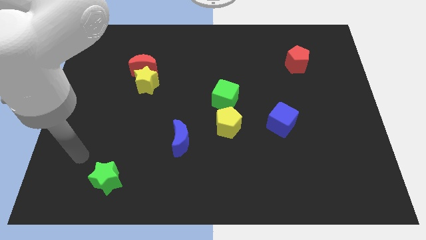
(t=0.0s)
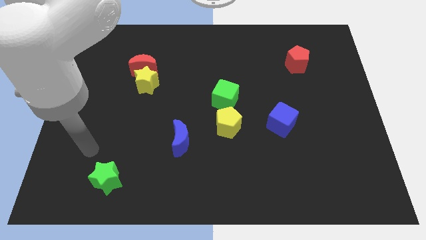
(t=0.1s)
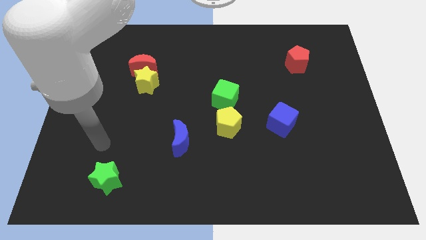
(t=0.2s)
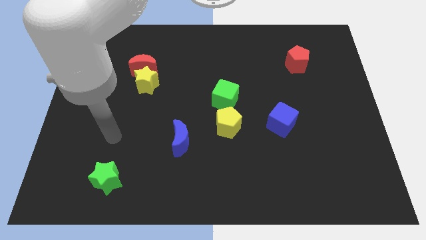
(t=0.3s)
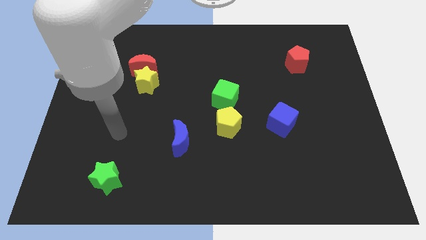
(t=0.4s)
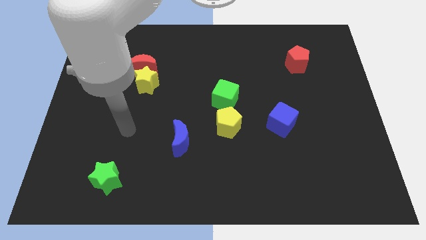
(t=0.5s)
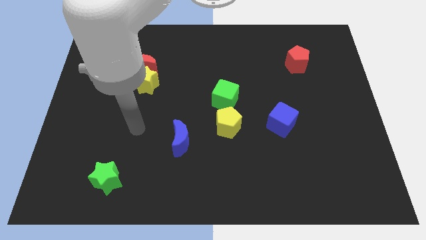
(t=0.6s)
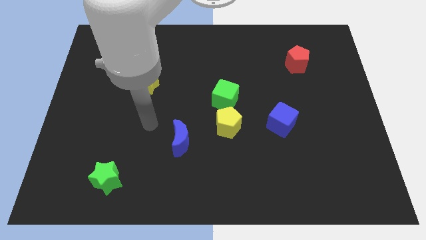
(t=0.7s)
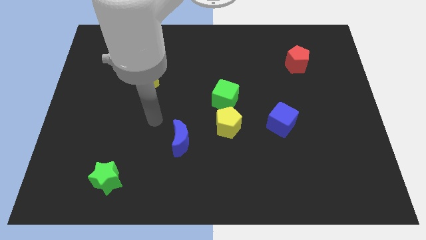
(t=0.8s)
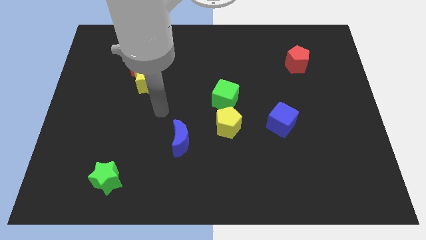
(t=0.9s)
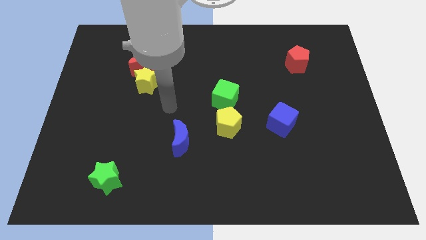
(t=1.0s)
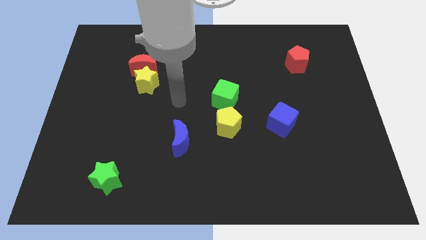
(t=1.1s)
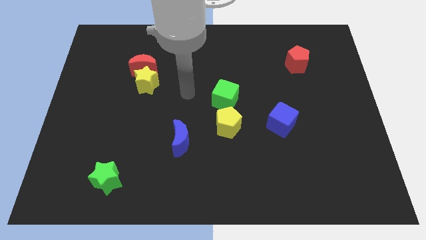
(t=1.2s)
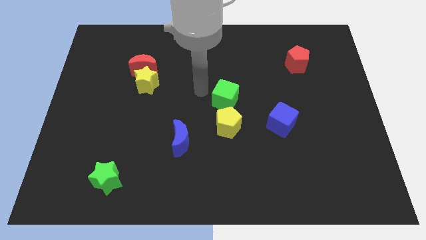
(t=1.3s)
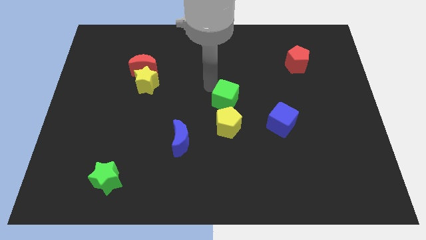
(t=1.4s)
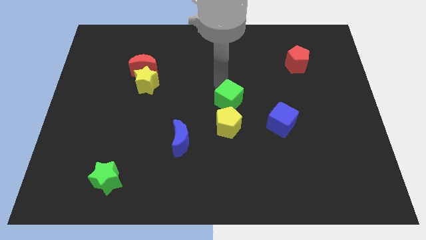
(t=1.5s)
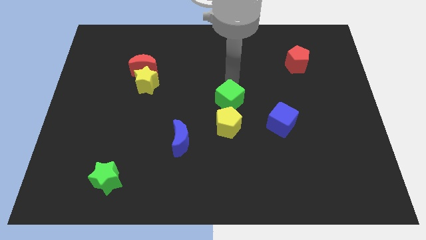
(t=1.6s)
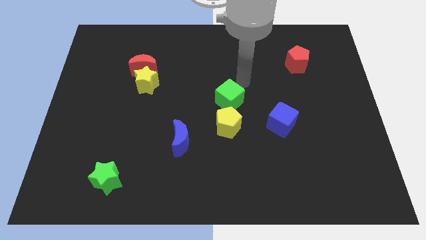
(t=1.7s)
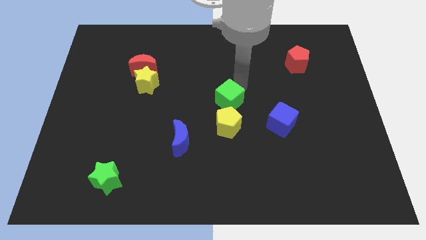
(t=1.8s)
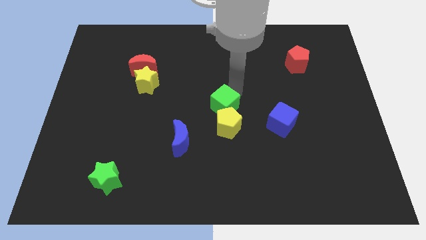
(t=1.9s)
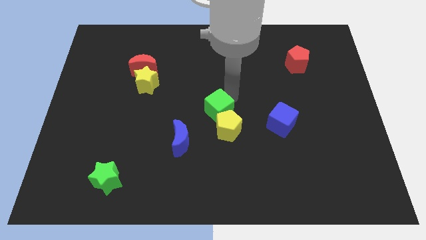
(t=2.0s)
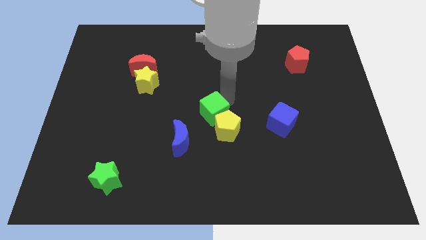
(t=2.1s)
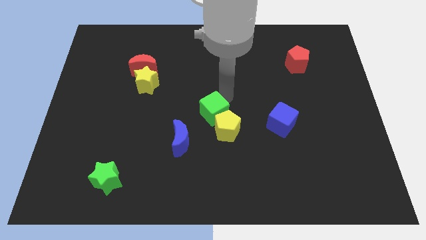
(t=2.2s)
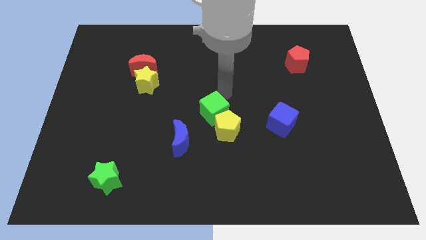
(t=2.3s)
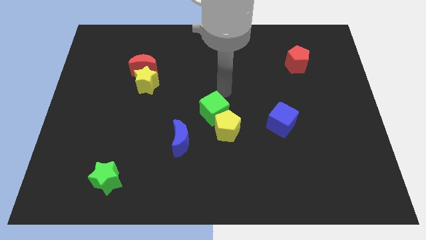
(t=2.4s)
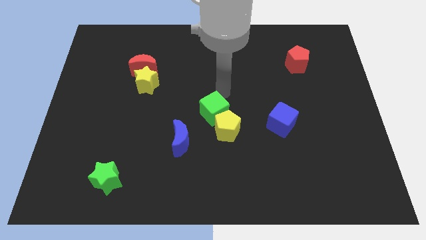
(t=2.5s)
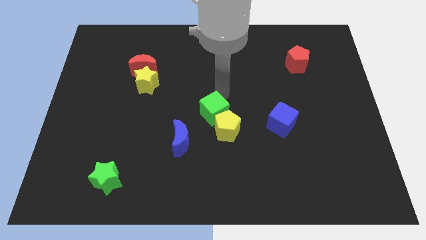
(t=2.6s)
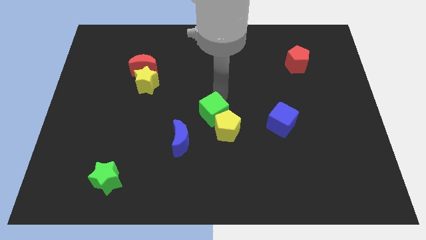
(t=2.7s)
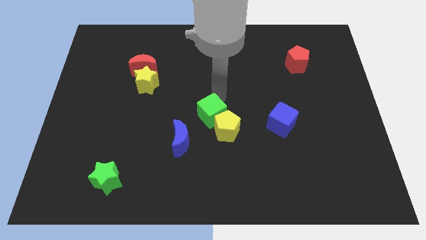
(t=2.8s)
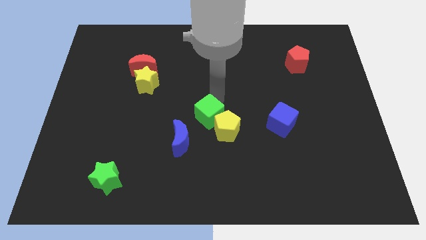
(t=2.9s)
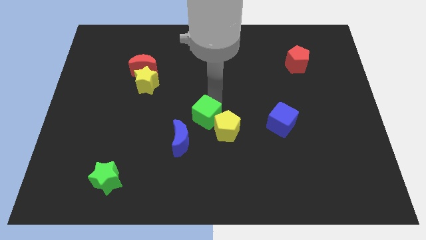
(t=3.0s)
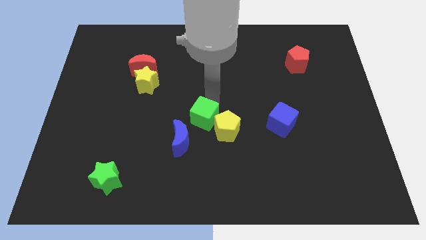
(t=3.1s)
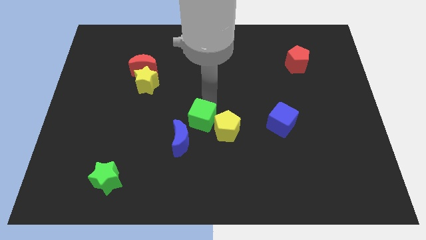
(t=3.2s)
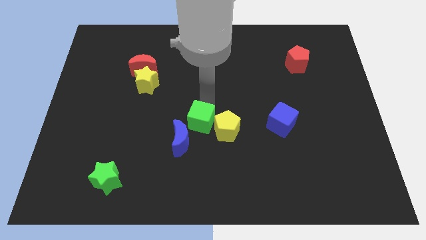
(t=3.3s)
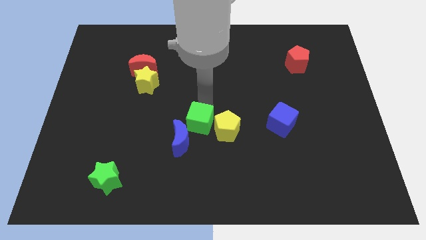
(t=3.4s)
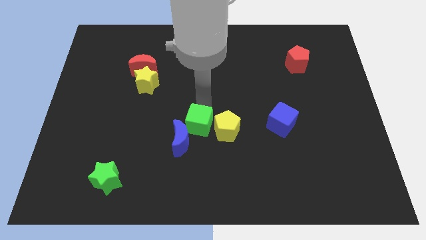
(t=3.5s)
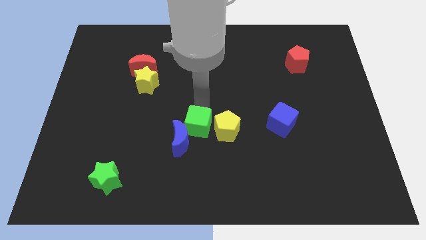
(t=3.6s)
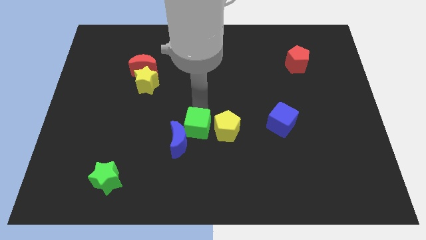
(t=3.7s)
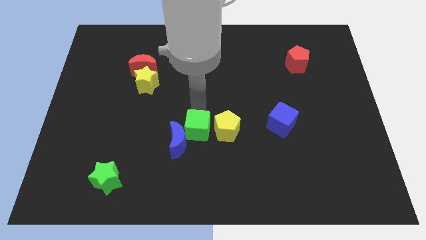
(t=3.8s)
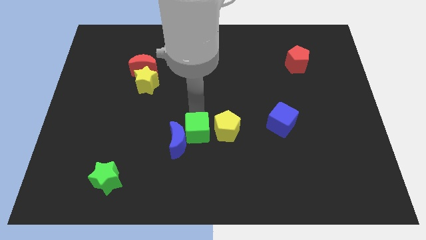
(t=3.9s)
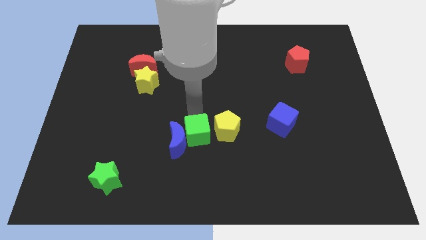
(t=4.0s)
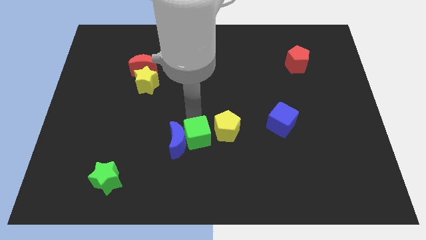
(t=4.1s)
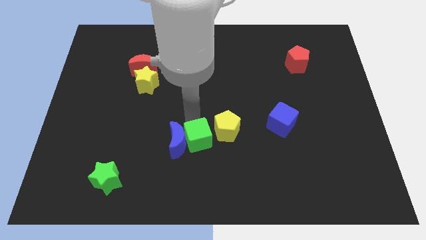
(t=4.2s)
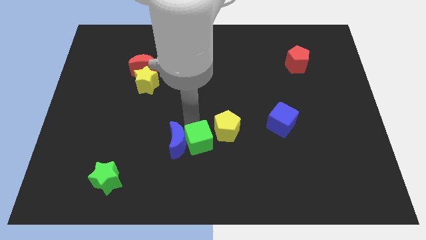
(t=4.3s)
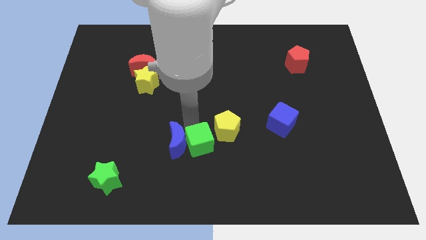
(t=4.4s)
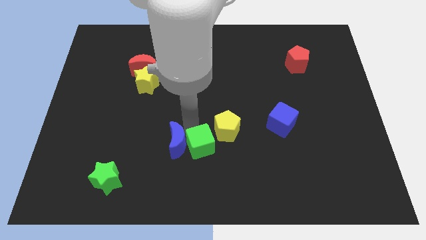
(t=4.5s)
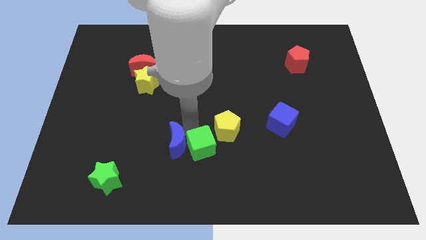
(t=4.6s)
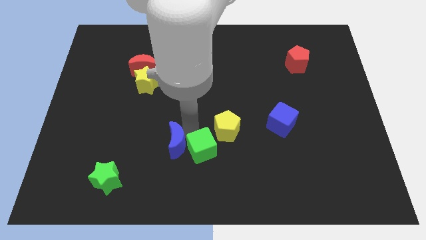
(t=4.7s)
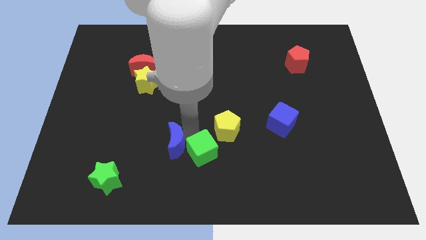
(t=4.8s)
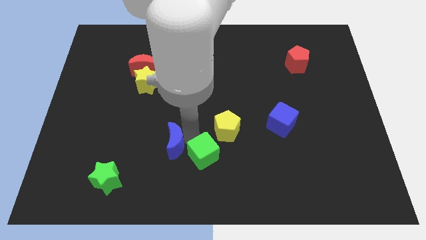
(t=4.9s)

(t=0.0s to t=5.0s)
slide the green cube to the bottom

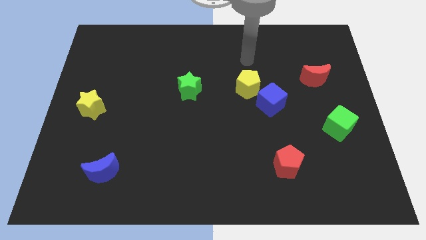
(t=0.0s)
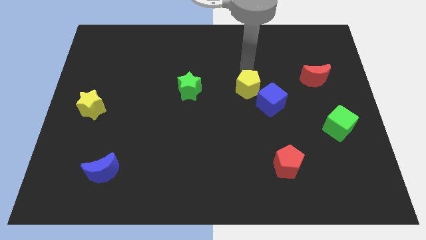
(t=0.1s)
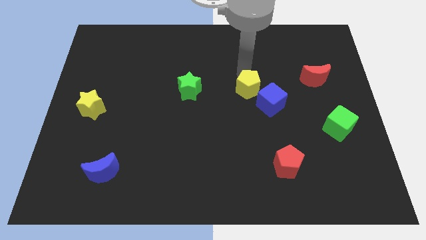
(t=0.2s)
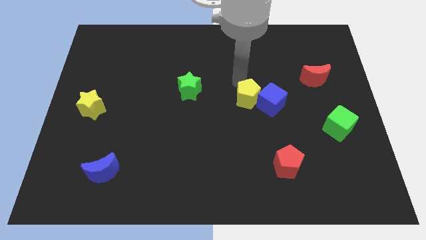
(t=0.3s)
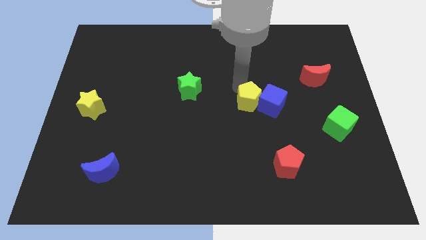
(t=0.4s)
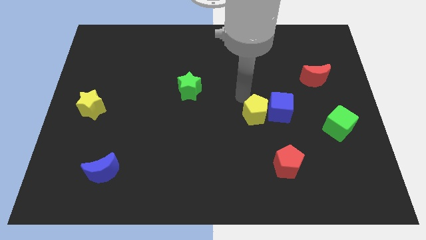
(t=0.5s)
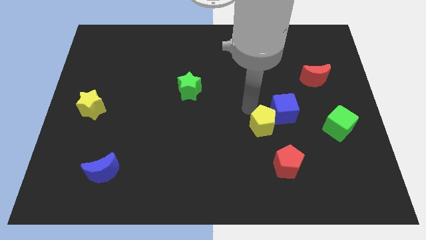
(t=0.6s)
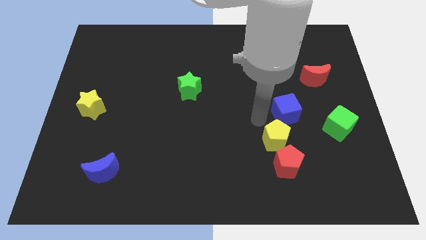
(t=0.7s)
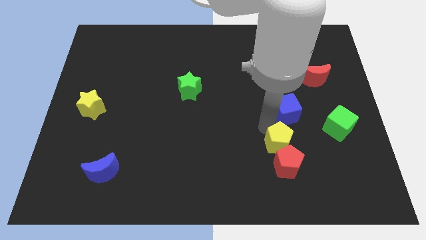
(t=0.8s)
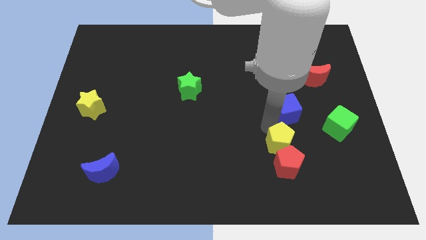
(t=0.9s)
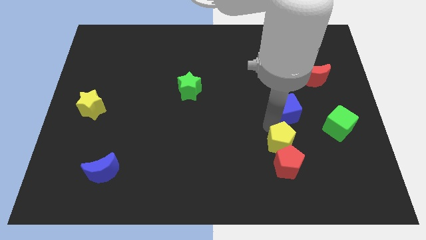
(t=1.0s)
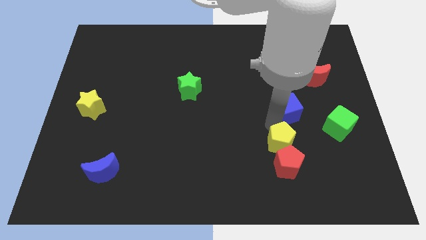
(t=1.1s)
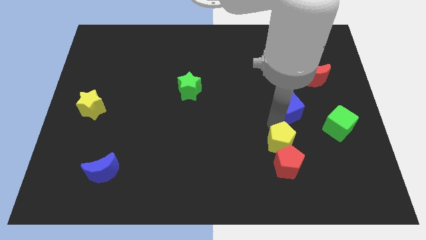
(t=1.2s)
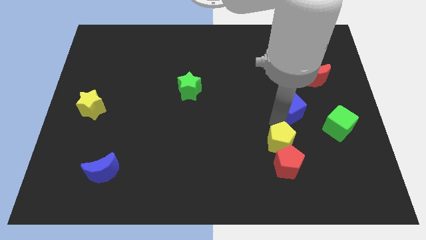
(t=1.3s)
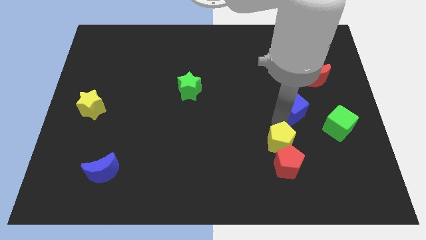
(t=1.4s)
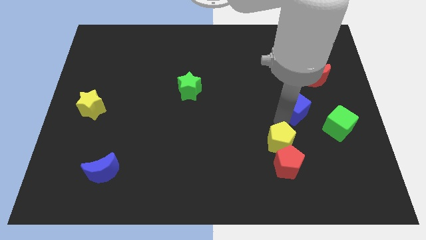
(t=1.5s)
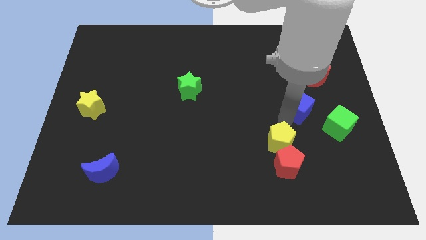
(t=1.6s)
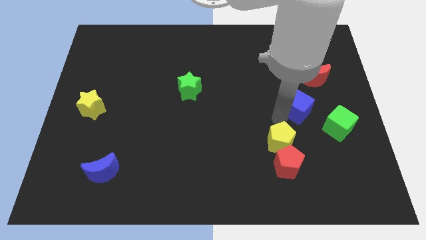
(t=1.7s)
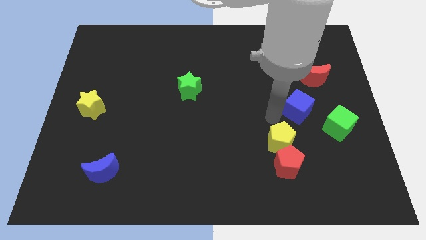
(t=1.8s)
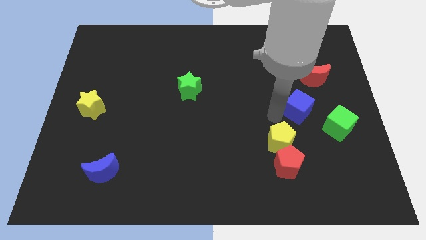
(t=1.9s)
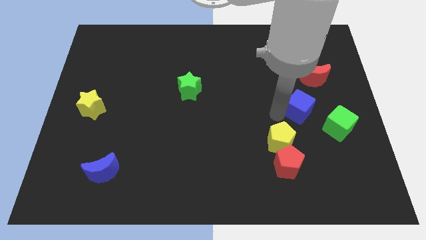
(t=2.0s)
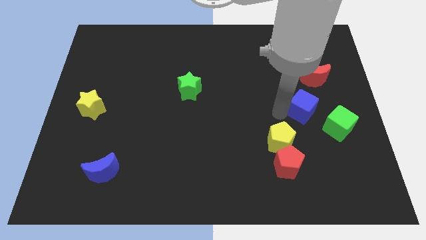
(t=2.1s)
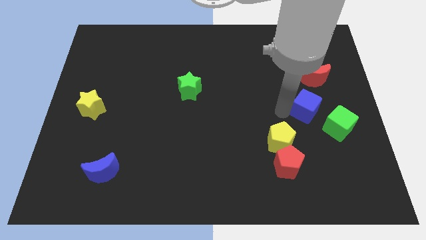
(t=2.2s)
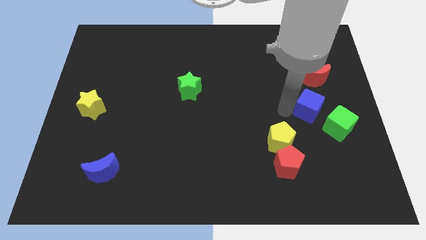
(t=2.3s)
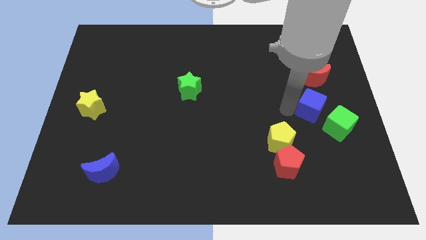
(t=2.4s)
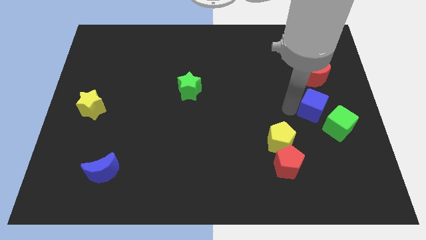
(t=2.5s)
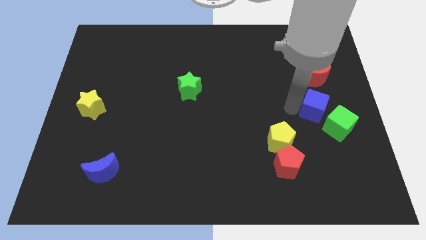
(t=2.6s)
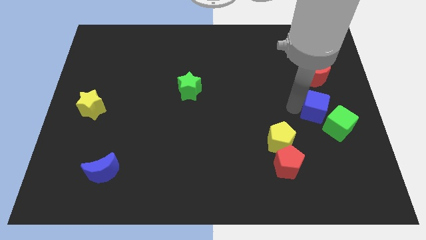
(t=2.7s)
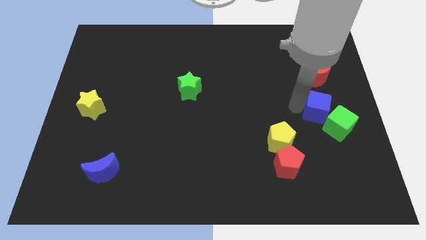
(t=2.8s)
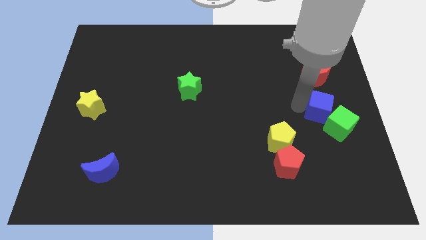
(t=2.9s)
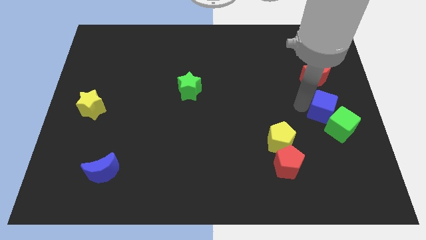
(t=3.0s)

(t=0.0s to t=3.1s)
put the blue cube to the right side

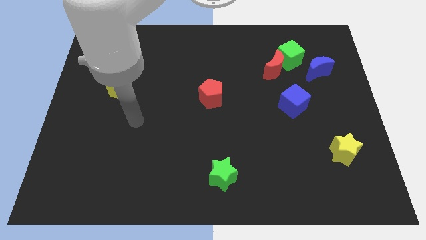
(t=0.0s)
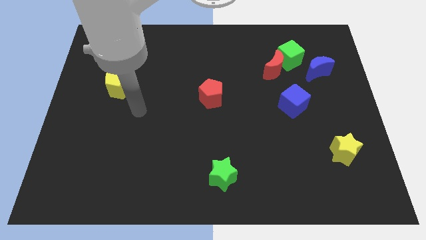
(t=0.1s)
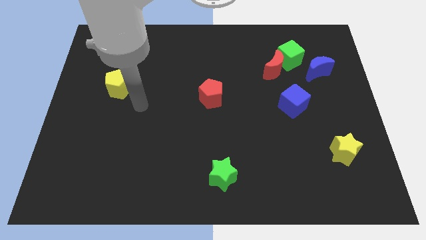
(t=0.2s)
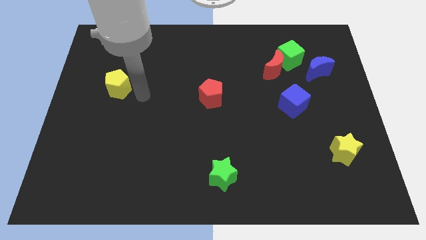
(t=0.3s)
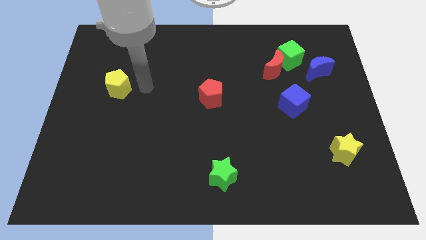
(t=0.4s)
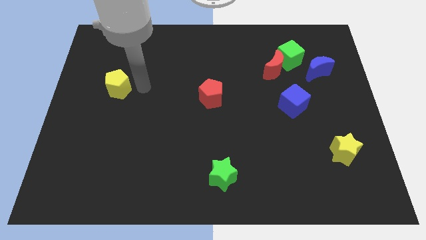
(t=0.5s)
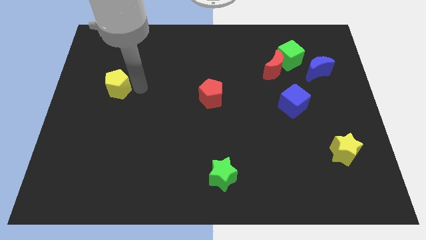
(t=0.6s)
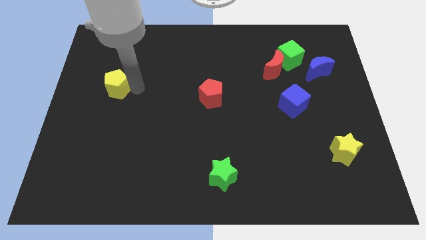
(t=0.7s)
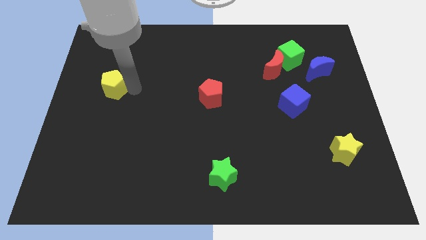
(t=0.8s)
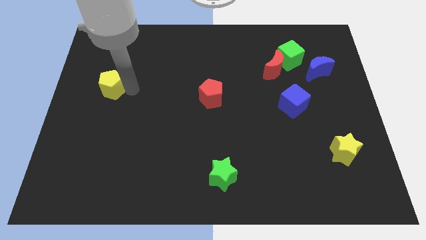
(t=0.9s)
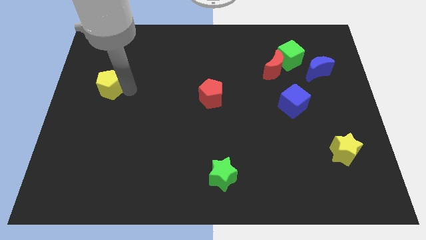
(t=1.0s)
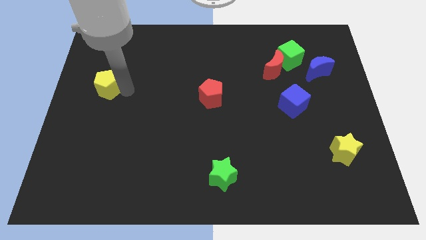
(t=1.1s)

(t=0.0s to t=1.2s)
move the yellow pentagon to the left side
